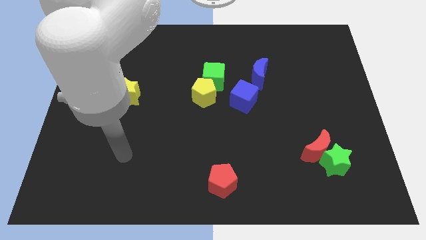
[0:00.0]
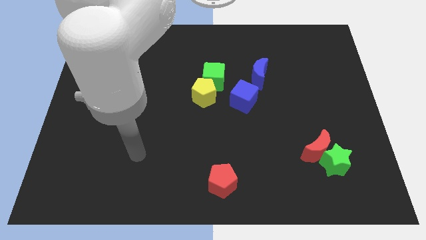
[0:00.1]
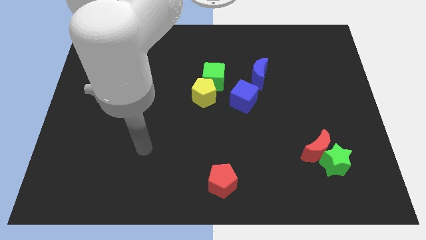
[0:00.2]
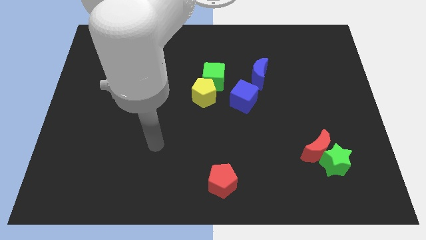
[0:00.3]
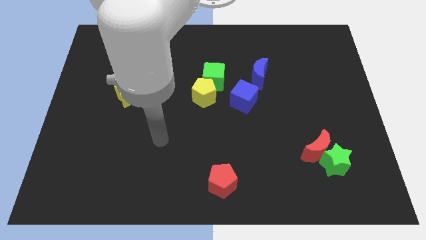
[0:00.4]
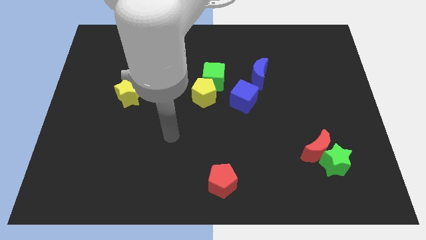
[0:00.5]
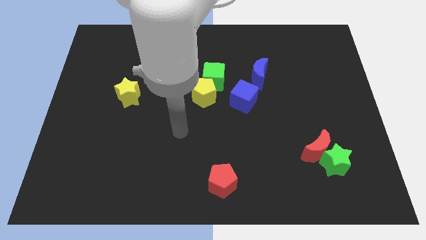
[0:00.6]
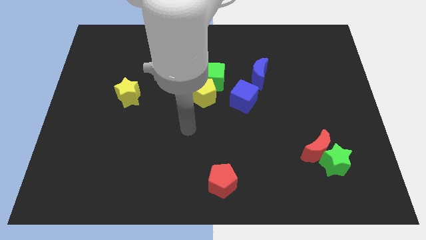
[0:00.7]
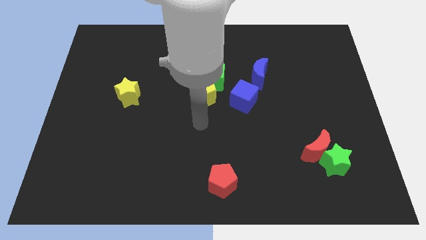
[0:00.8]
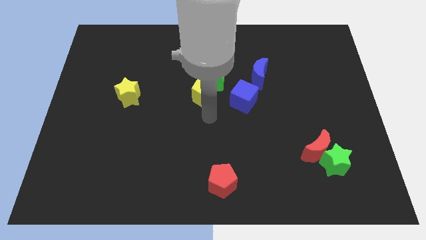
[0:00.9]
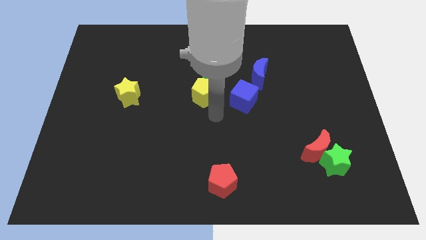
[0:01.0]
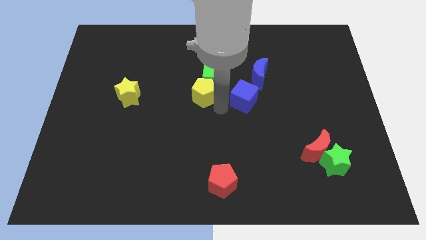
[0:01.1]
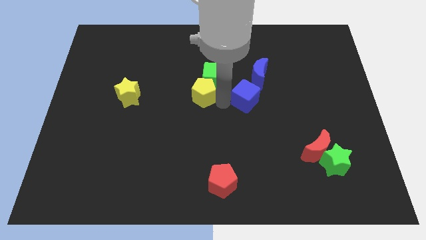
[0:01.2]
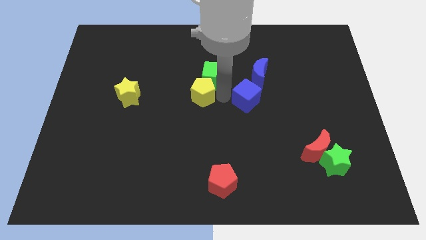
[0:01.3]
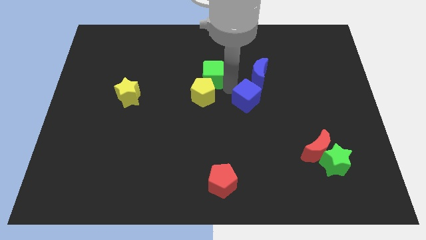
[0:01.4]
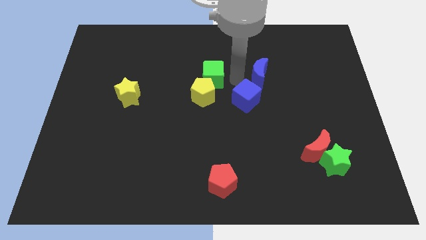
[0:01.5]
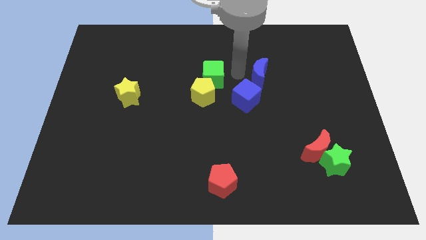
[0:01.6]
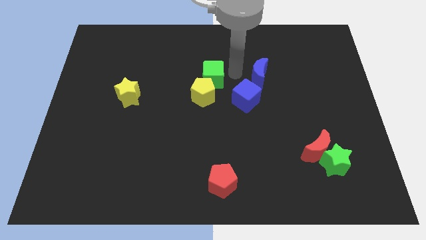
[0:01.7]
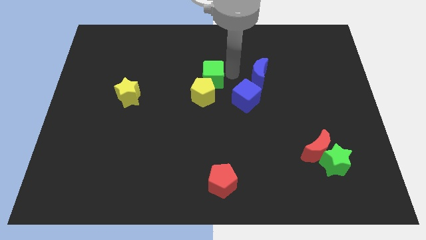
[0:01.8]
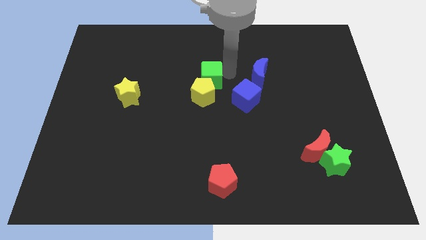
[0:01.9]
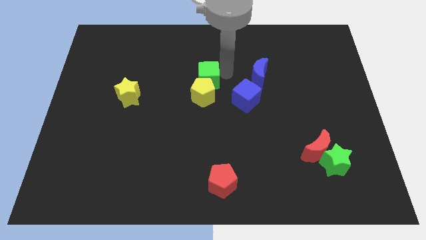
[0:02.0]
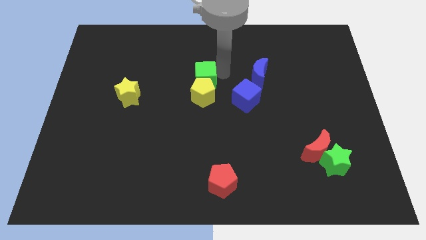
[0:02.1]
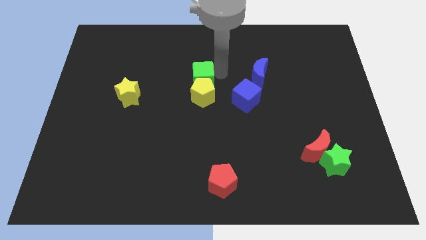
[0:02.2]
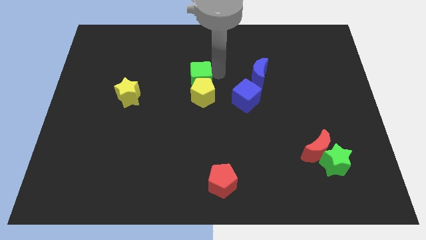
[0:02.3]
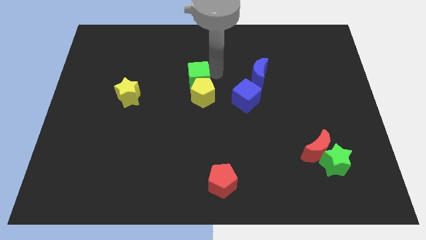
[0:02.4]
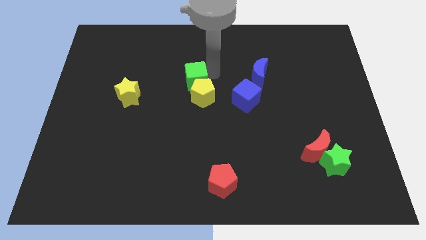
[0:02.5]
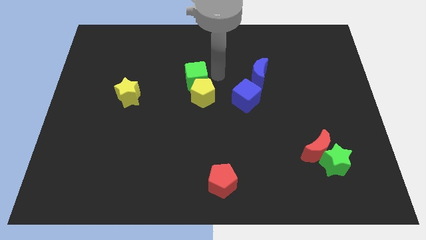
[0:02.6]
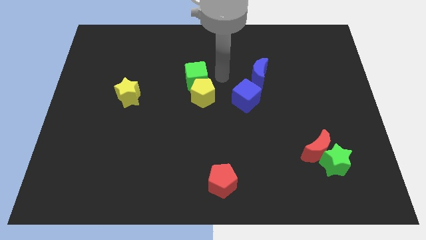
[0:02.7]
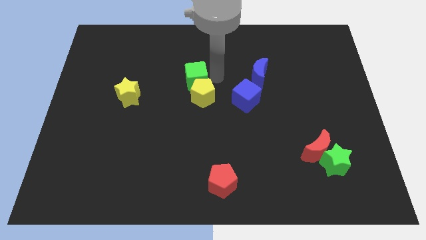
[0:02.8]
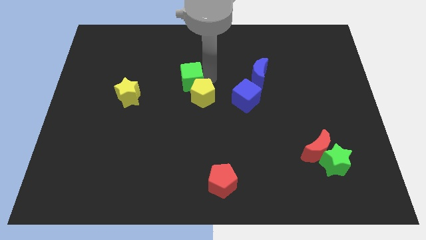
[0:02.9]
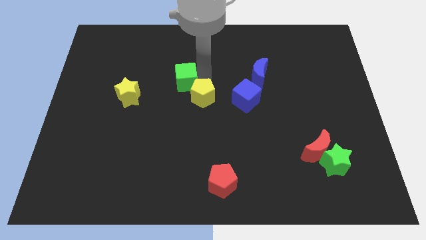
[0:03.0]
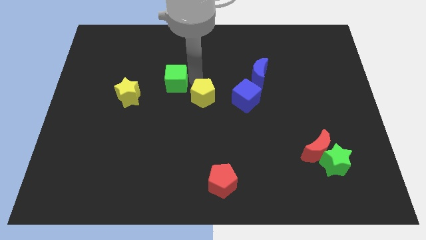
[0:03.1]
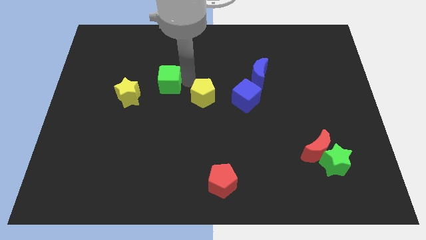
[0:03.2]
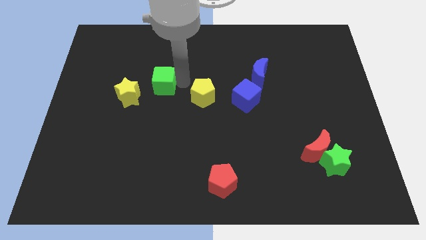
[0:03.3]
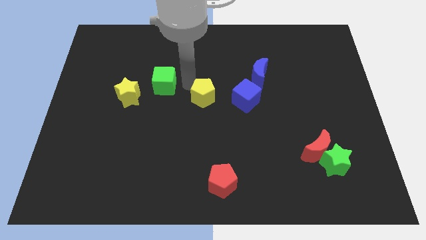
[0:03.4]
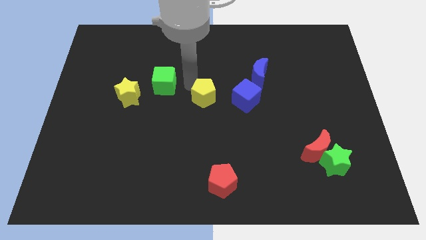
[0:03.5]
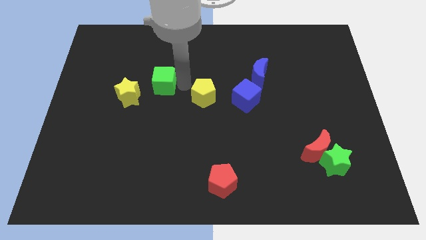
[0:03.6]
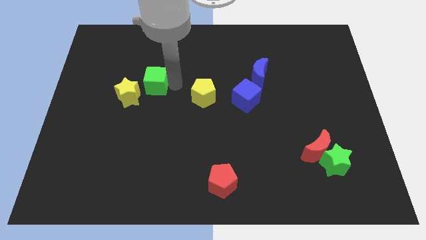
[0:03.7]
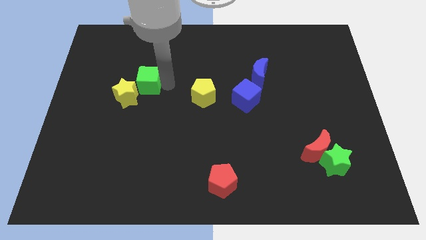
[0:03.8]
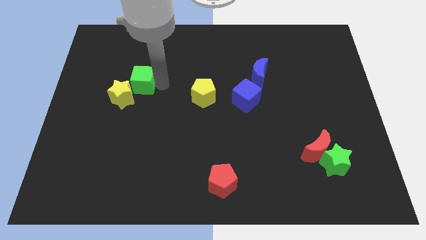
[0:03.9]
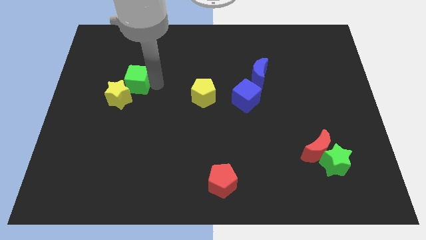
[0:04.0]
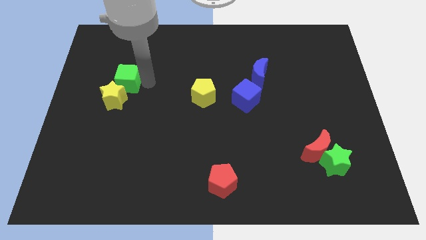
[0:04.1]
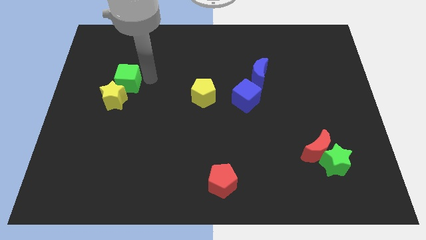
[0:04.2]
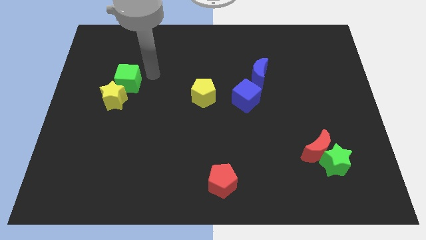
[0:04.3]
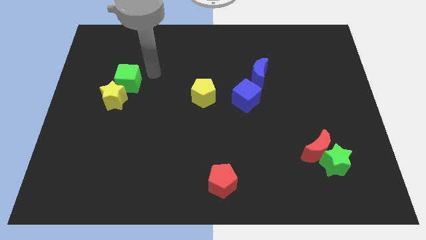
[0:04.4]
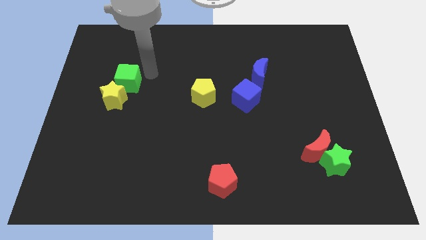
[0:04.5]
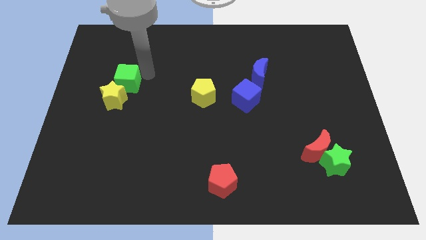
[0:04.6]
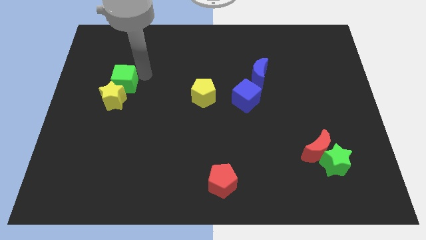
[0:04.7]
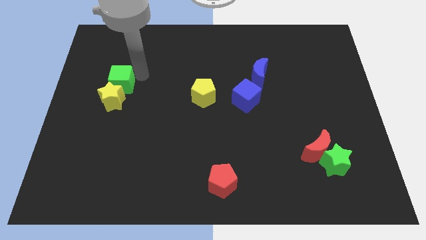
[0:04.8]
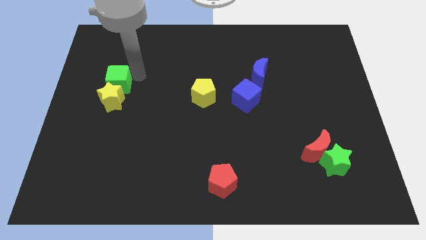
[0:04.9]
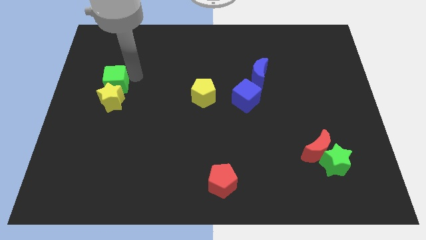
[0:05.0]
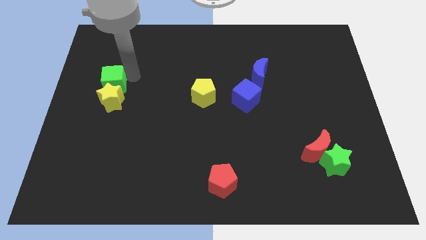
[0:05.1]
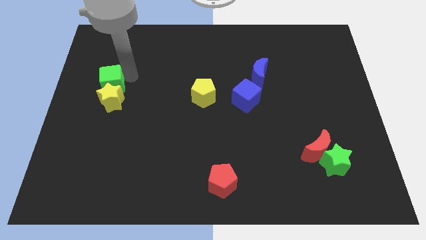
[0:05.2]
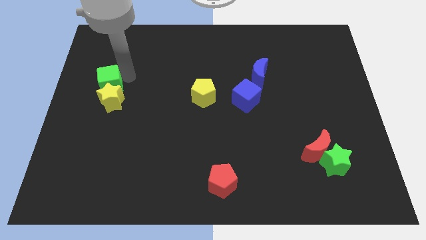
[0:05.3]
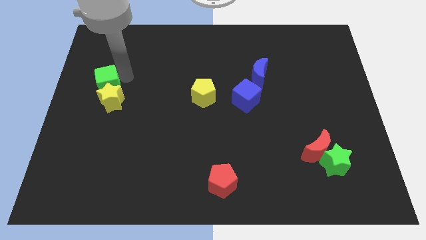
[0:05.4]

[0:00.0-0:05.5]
slide the green cube to the center left
